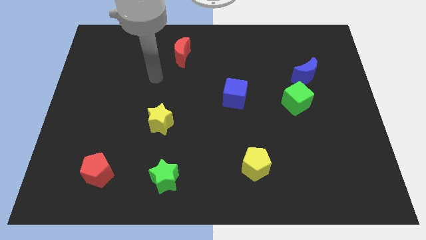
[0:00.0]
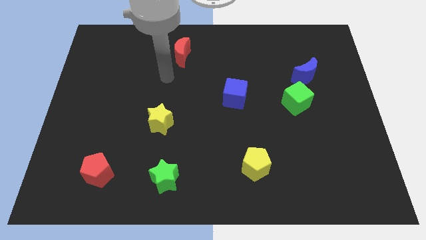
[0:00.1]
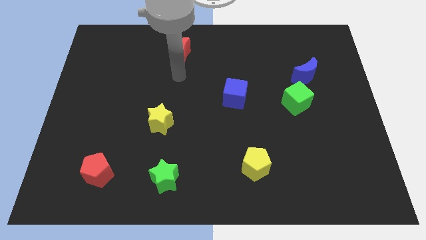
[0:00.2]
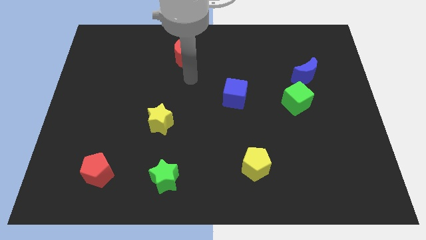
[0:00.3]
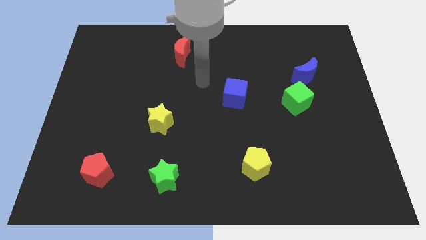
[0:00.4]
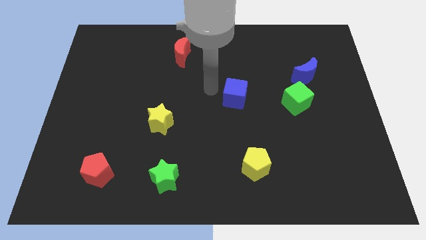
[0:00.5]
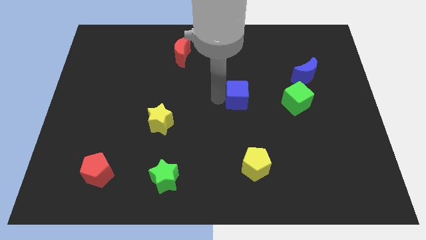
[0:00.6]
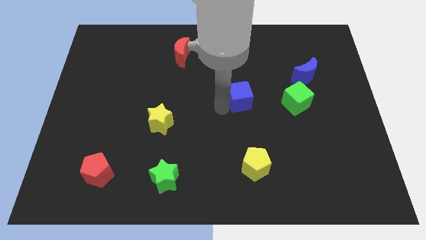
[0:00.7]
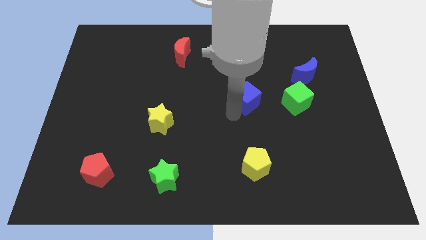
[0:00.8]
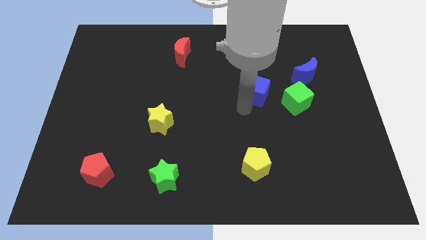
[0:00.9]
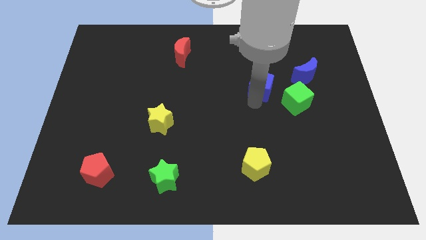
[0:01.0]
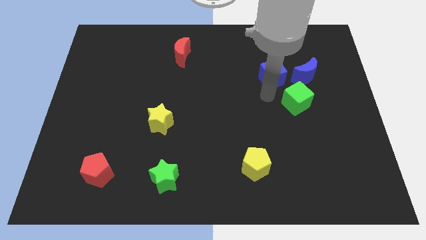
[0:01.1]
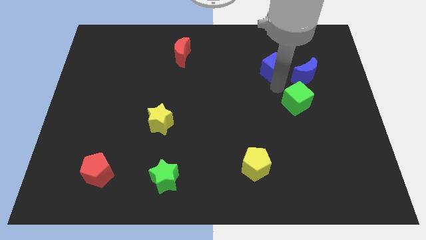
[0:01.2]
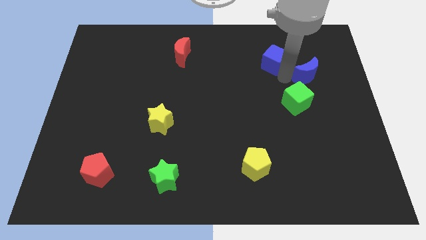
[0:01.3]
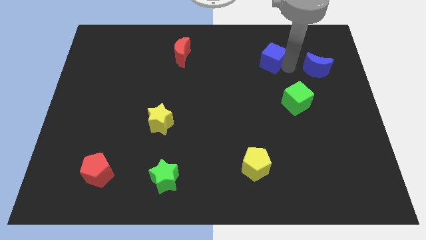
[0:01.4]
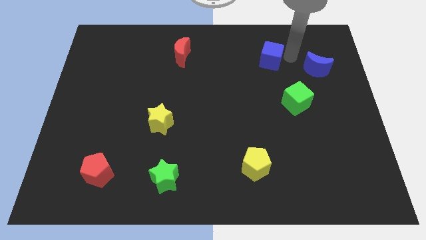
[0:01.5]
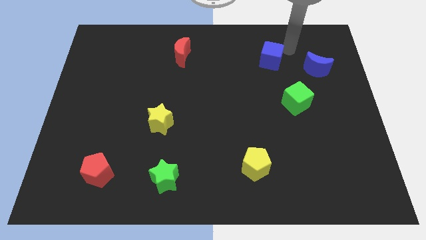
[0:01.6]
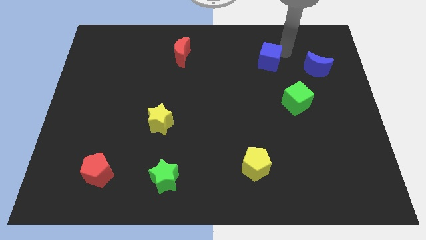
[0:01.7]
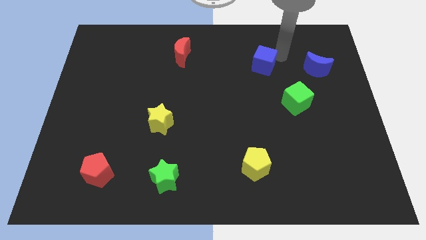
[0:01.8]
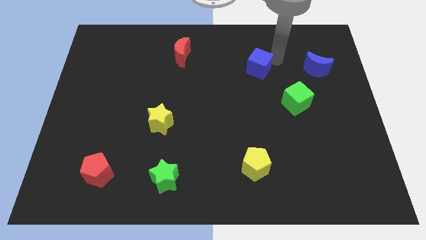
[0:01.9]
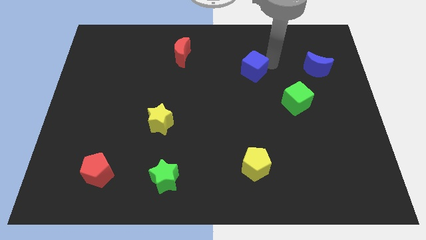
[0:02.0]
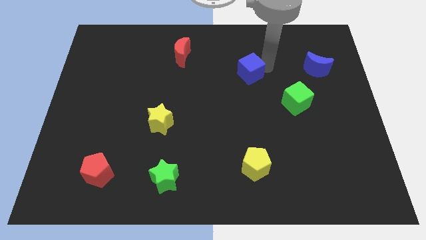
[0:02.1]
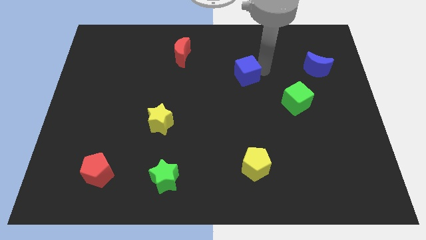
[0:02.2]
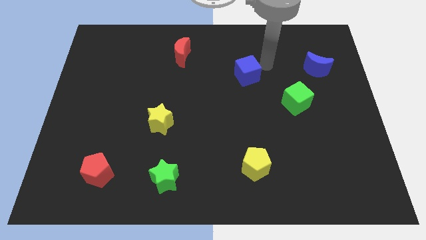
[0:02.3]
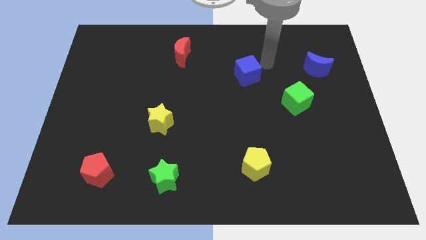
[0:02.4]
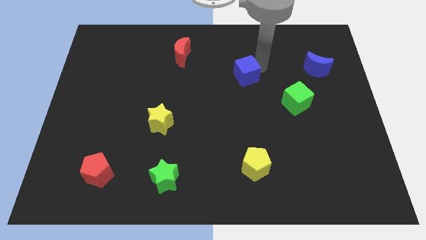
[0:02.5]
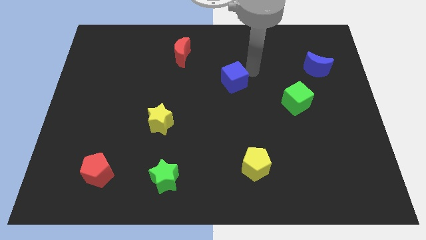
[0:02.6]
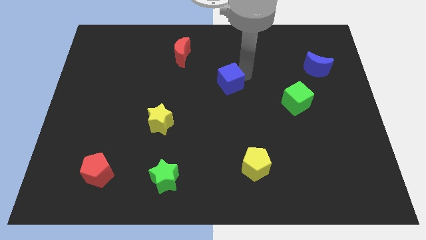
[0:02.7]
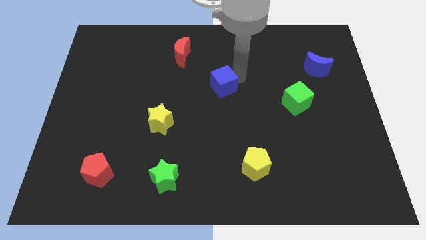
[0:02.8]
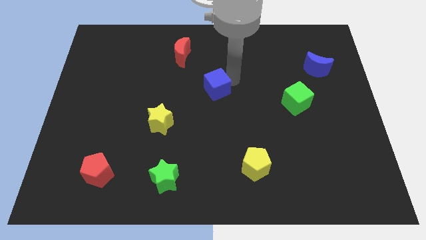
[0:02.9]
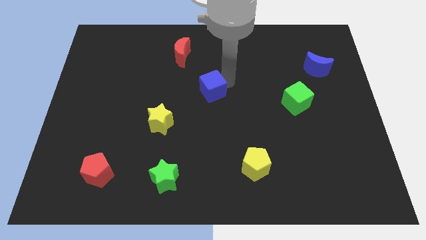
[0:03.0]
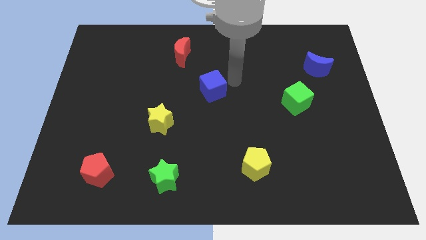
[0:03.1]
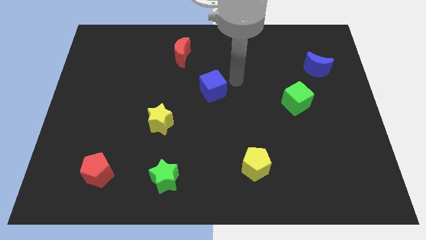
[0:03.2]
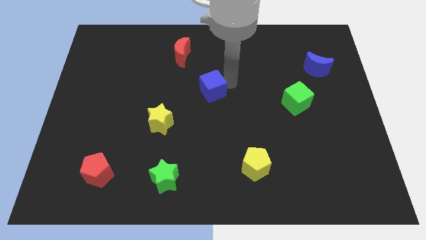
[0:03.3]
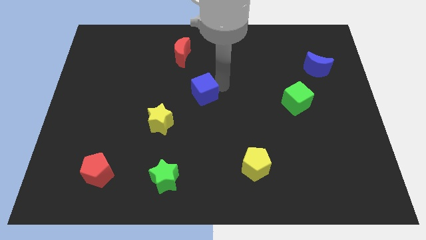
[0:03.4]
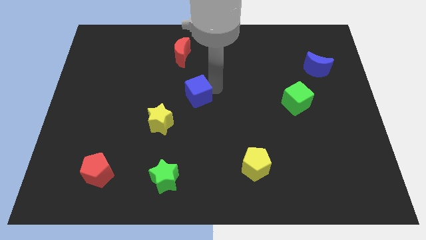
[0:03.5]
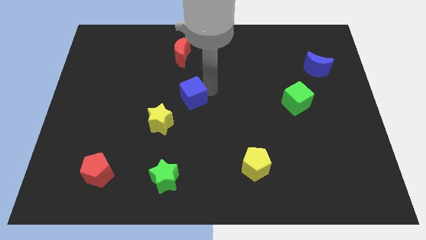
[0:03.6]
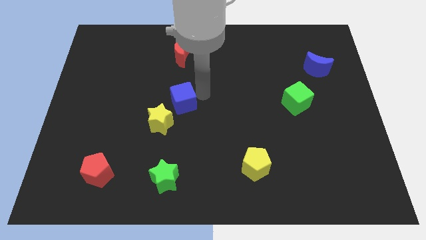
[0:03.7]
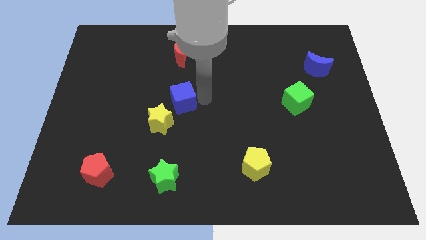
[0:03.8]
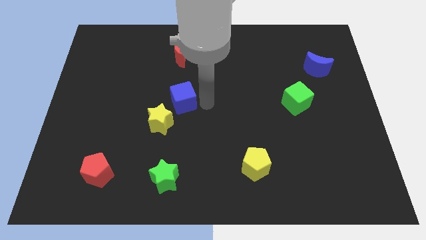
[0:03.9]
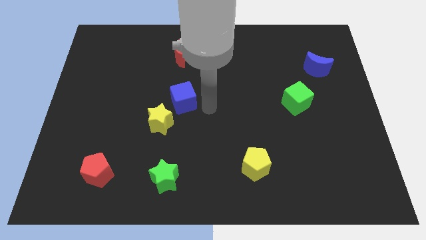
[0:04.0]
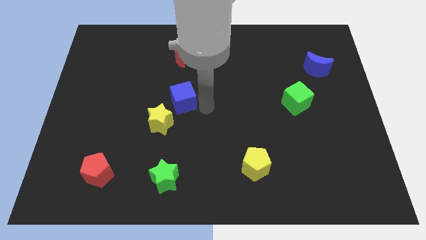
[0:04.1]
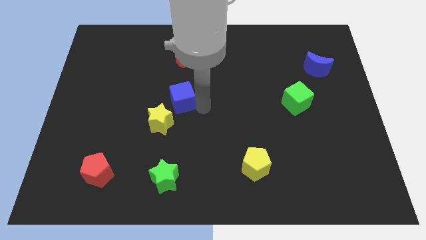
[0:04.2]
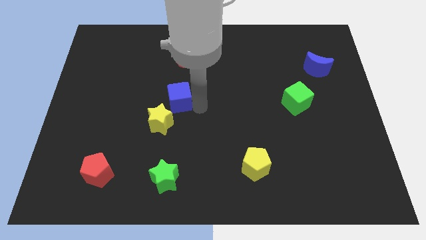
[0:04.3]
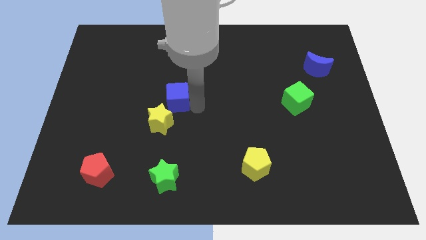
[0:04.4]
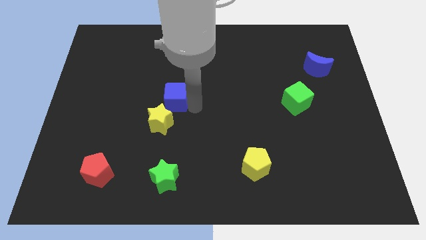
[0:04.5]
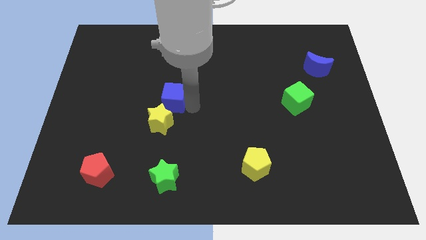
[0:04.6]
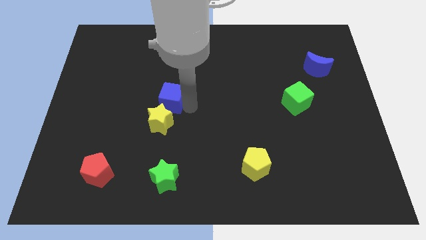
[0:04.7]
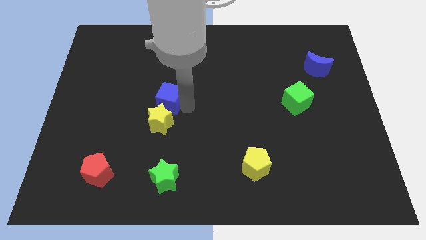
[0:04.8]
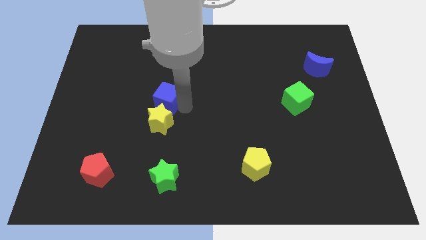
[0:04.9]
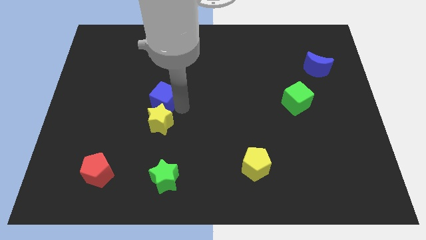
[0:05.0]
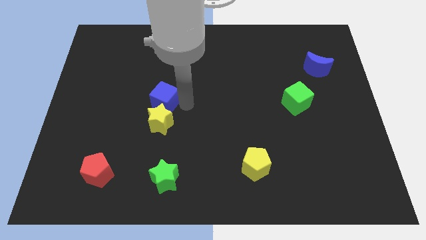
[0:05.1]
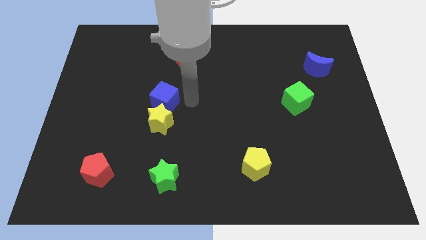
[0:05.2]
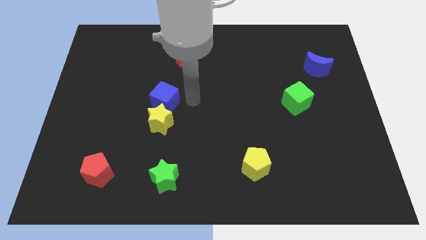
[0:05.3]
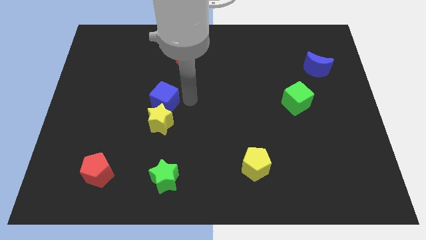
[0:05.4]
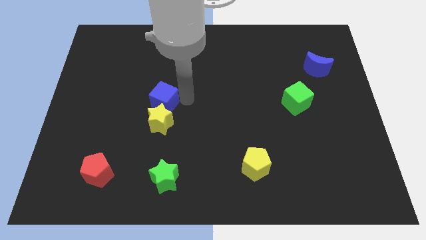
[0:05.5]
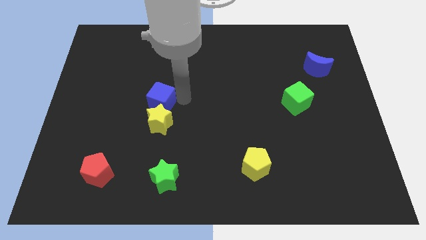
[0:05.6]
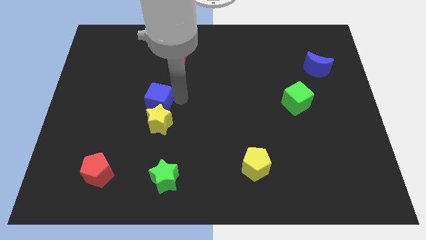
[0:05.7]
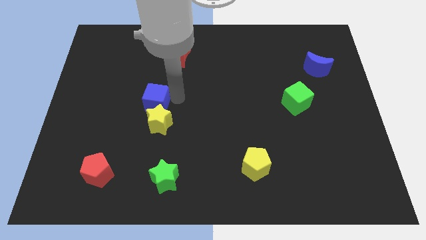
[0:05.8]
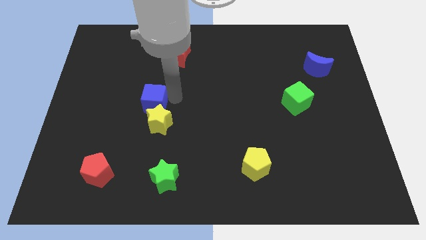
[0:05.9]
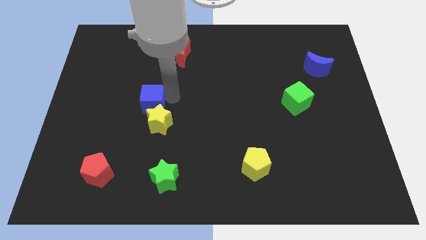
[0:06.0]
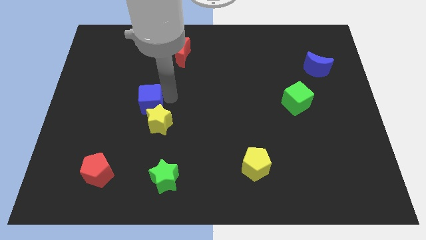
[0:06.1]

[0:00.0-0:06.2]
push the blue cube left

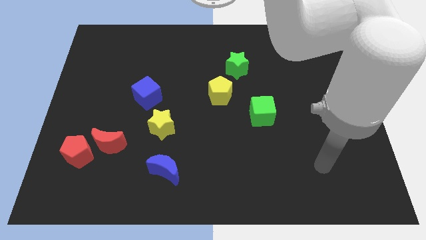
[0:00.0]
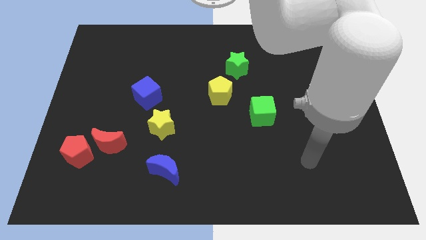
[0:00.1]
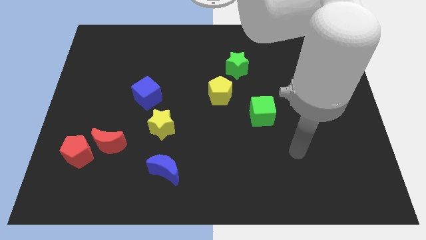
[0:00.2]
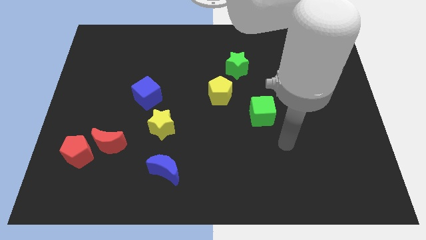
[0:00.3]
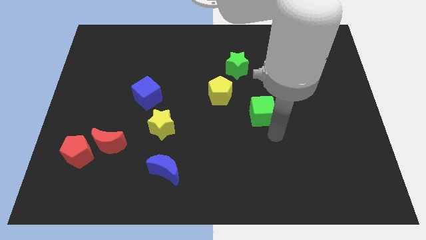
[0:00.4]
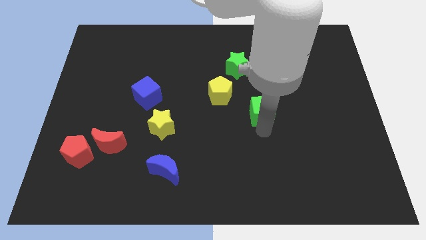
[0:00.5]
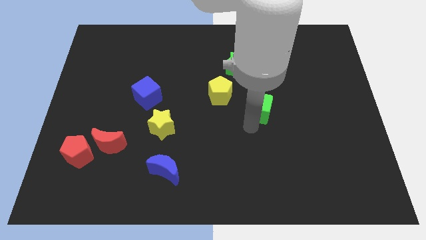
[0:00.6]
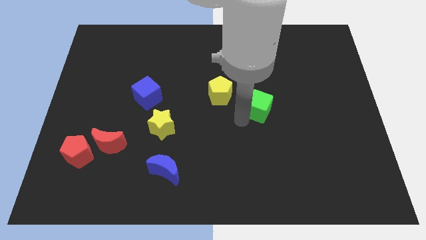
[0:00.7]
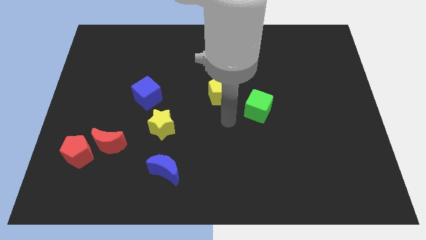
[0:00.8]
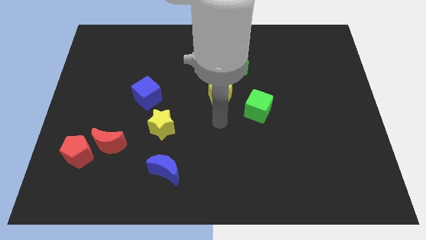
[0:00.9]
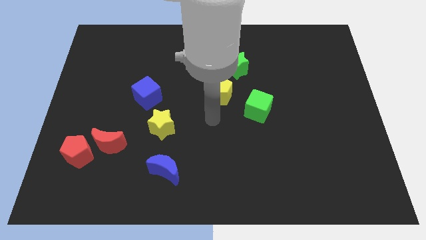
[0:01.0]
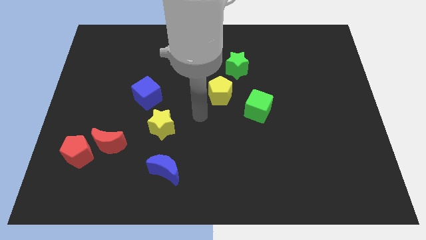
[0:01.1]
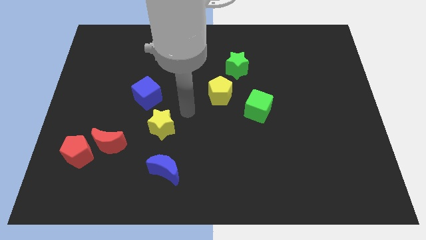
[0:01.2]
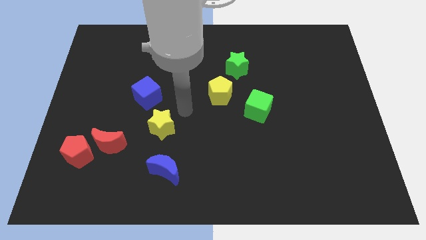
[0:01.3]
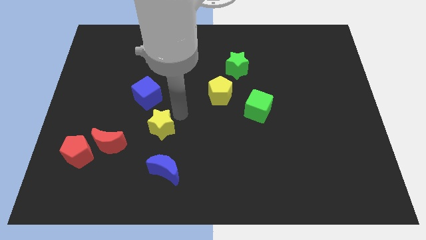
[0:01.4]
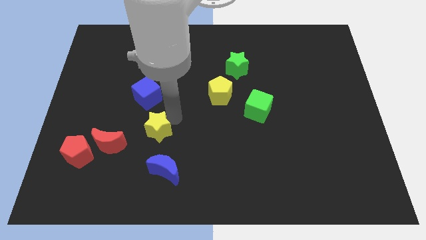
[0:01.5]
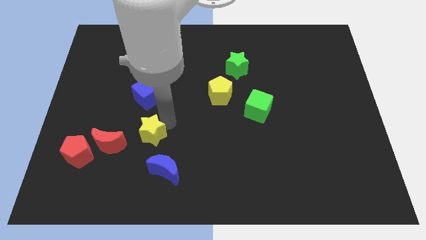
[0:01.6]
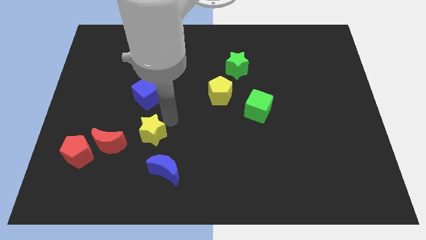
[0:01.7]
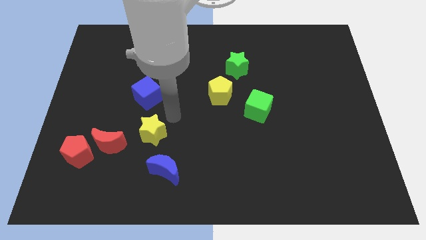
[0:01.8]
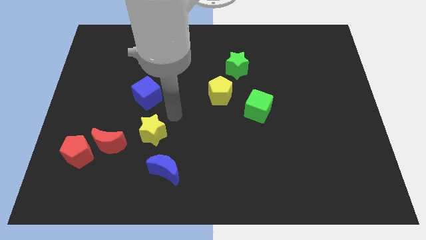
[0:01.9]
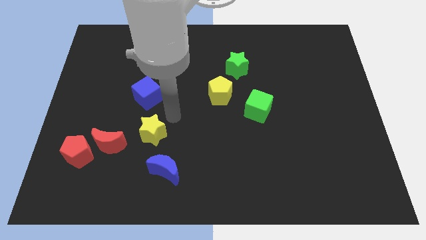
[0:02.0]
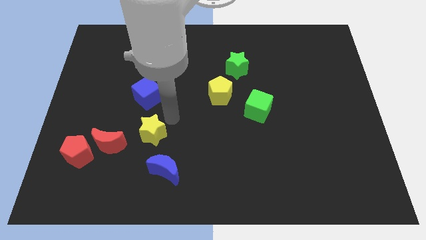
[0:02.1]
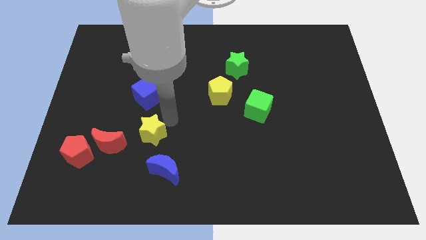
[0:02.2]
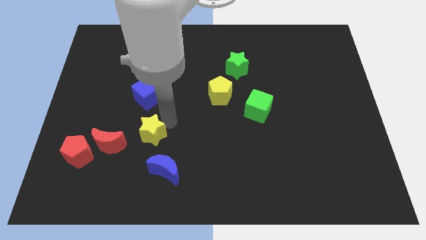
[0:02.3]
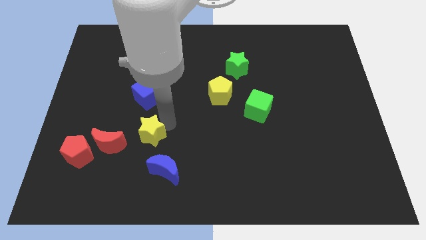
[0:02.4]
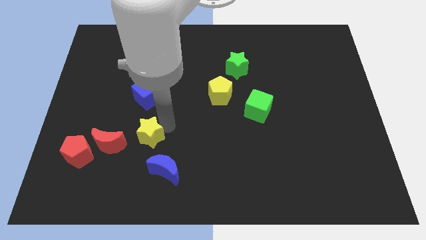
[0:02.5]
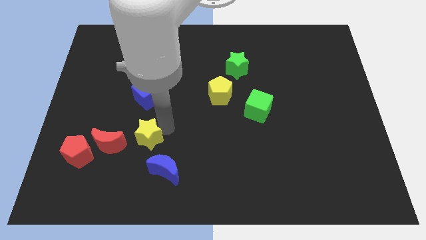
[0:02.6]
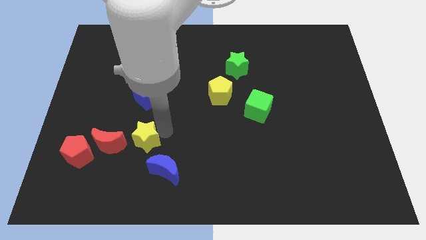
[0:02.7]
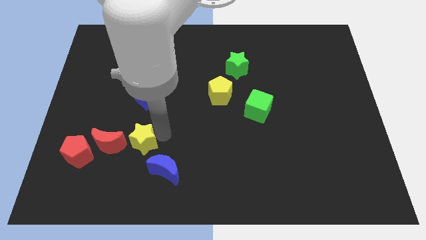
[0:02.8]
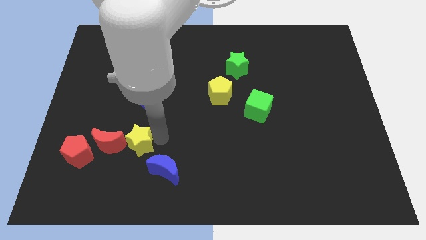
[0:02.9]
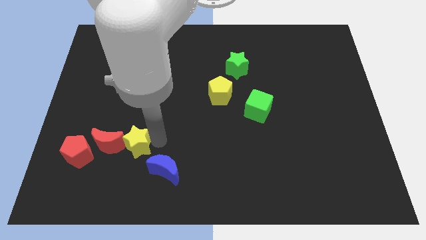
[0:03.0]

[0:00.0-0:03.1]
slide the yellow star downwards and left diagonally somewhat
